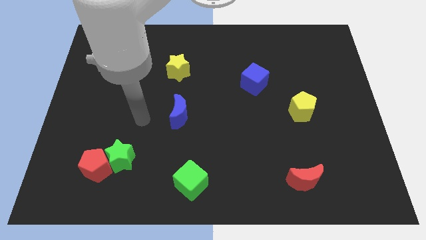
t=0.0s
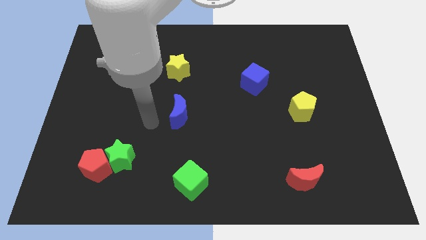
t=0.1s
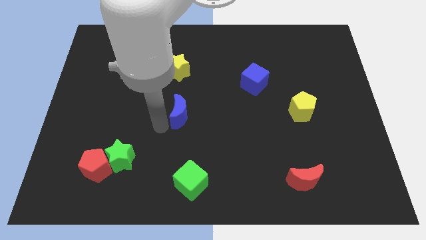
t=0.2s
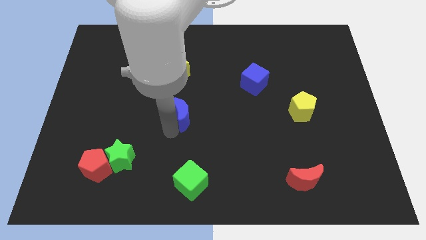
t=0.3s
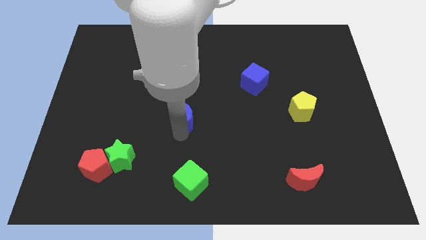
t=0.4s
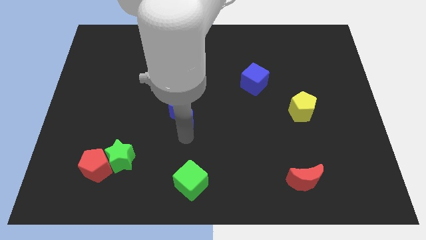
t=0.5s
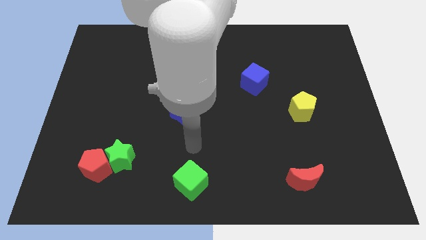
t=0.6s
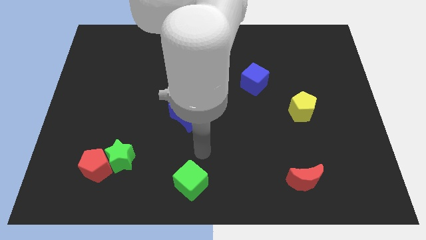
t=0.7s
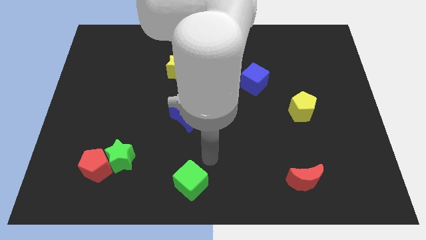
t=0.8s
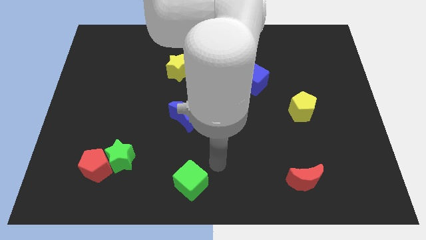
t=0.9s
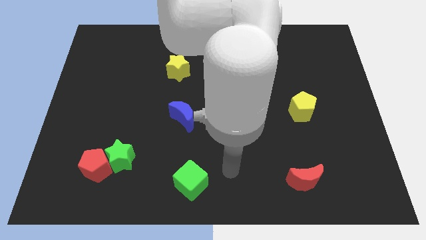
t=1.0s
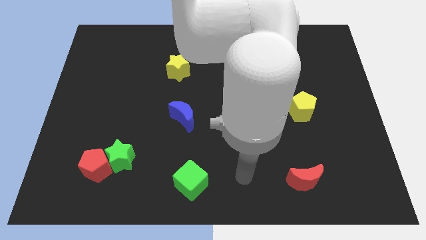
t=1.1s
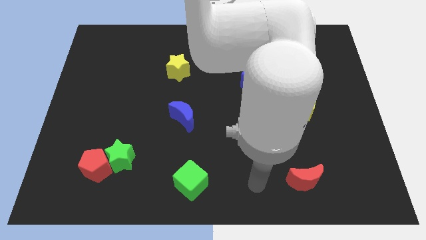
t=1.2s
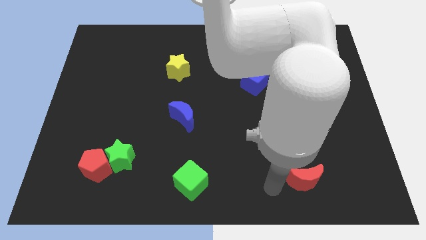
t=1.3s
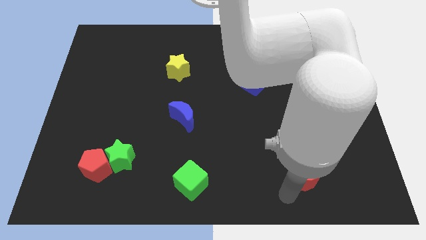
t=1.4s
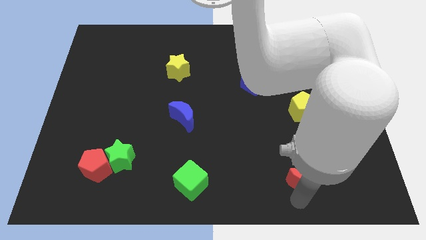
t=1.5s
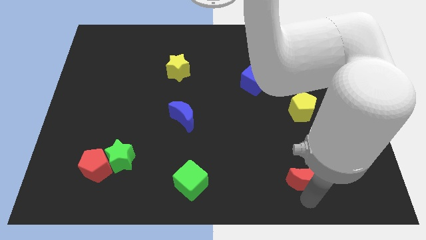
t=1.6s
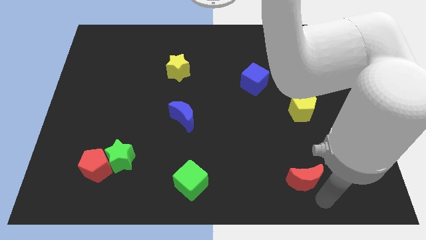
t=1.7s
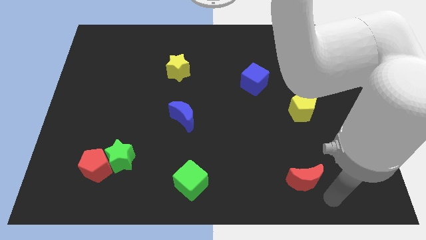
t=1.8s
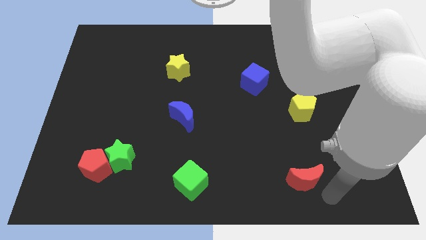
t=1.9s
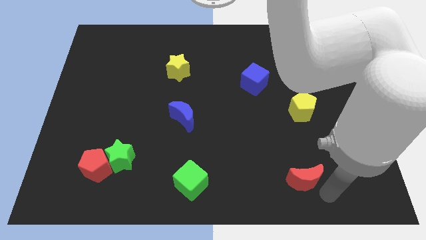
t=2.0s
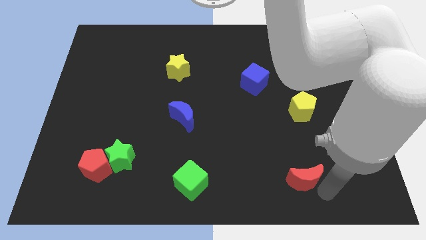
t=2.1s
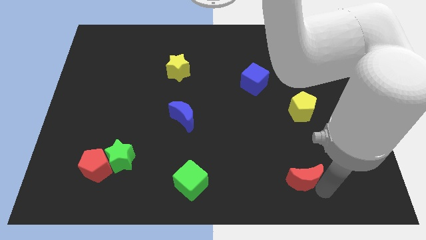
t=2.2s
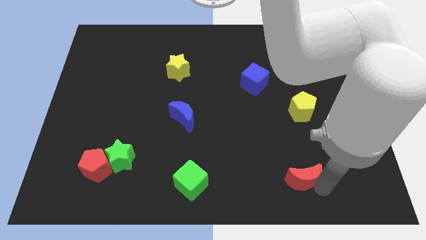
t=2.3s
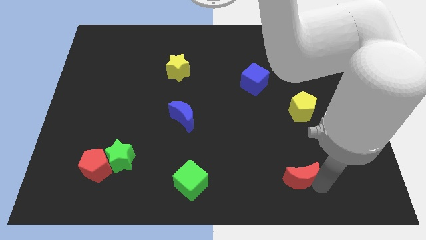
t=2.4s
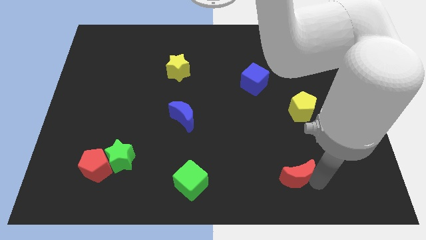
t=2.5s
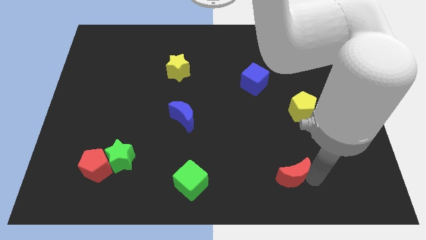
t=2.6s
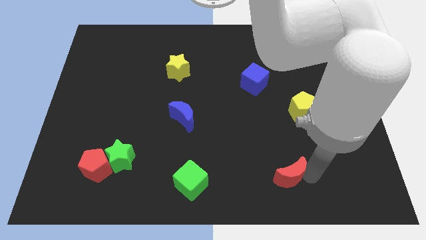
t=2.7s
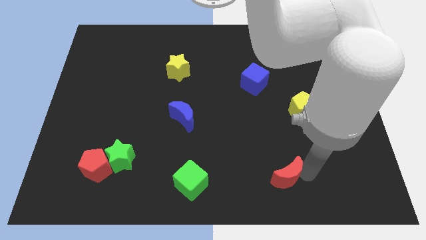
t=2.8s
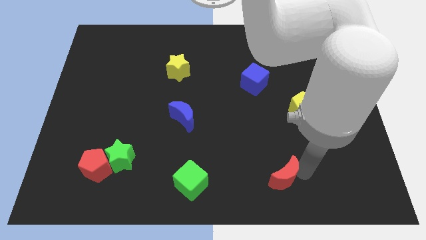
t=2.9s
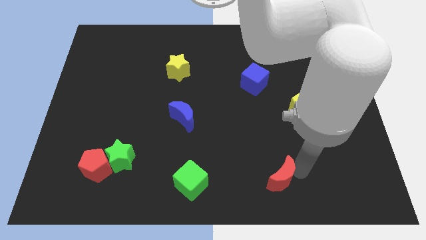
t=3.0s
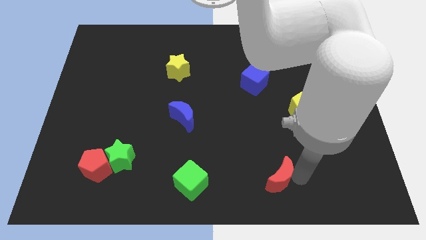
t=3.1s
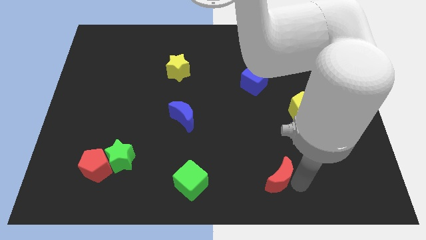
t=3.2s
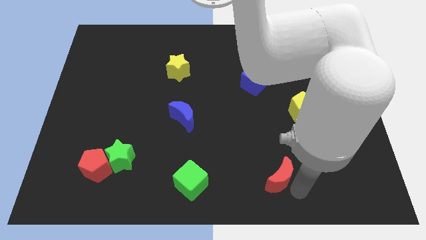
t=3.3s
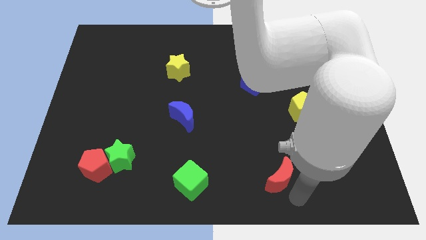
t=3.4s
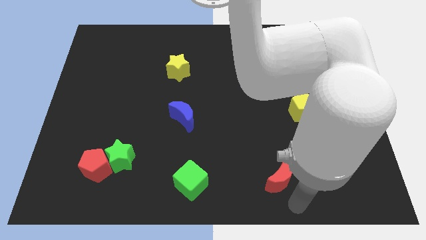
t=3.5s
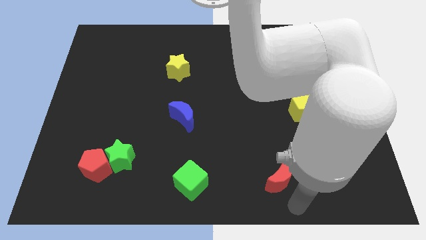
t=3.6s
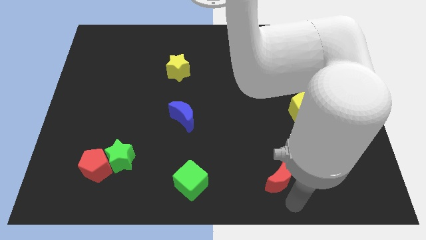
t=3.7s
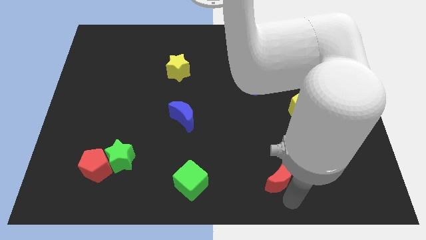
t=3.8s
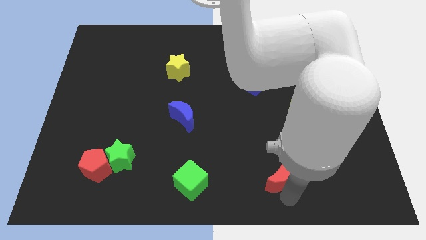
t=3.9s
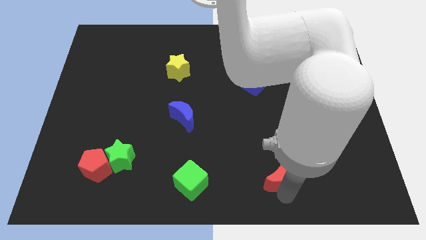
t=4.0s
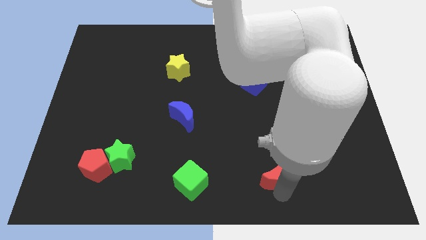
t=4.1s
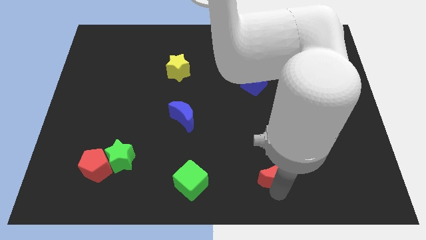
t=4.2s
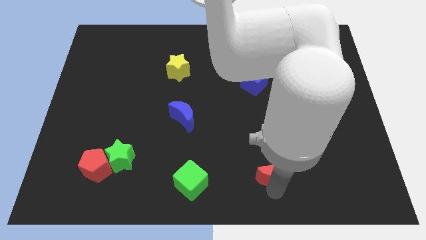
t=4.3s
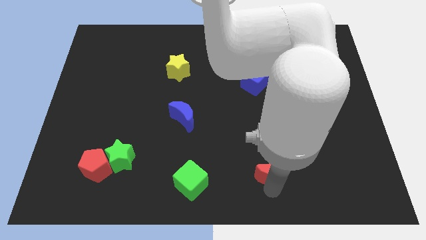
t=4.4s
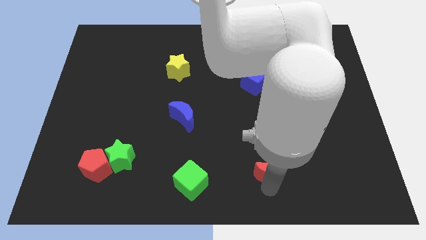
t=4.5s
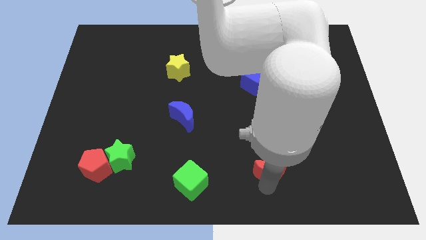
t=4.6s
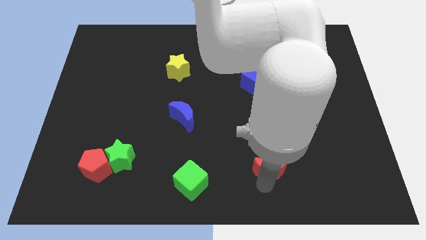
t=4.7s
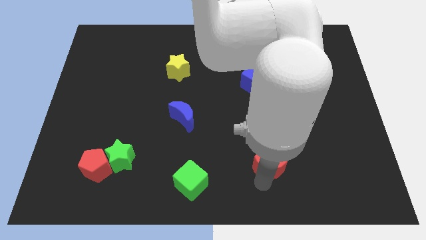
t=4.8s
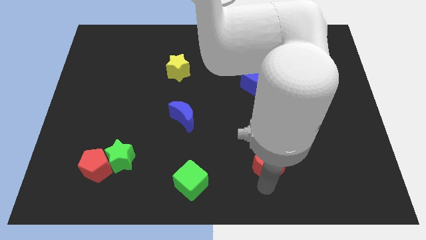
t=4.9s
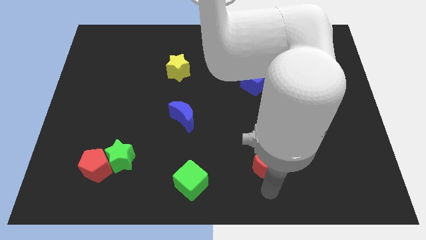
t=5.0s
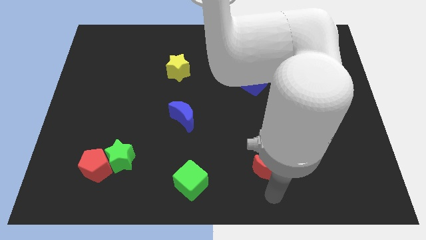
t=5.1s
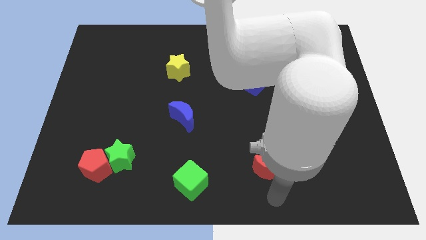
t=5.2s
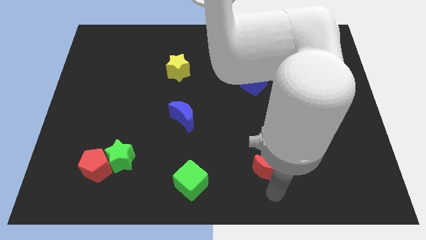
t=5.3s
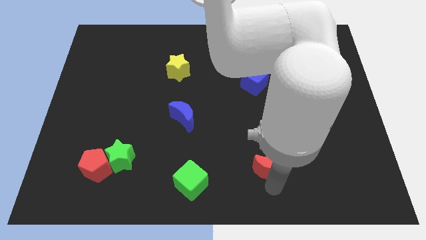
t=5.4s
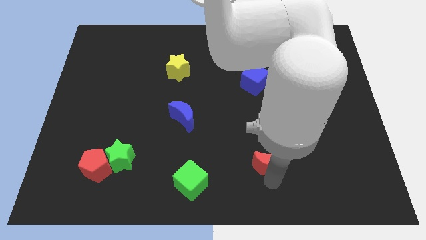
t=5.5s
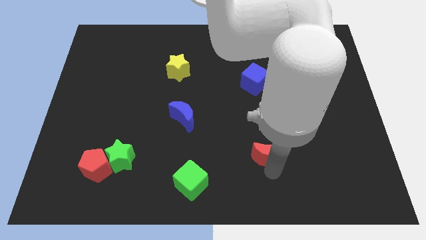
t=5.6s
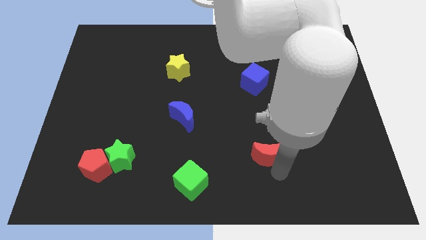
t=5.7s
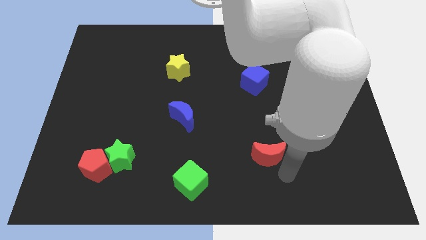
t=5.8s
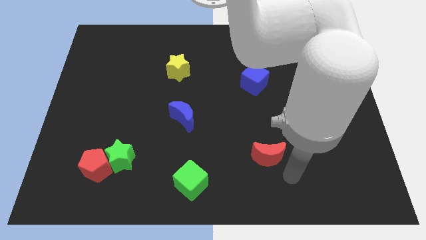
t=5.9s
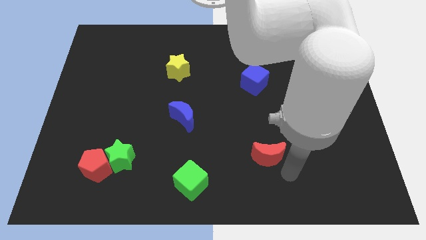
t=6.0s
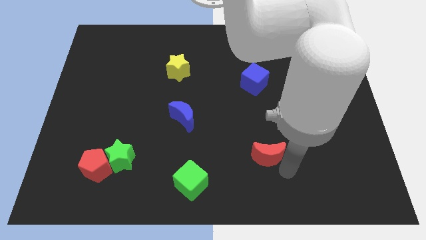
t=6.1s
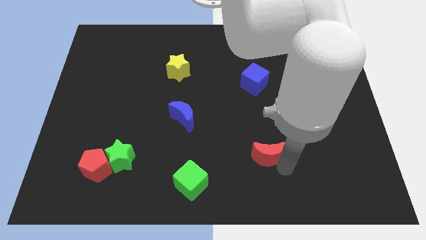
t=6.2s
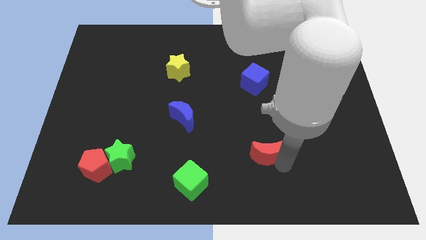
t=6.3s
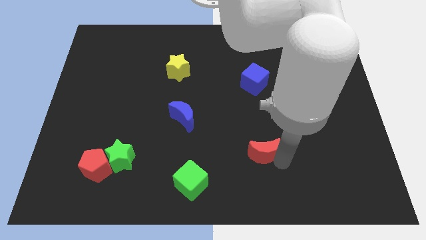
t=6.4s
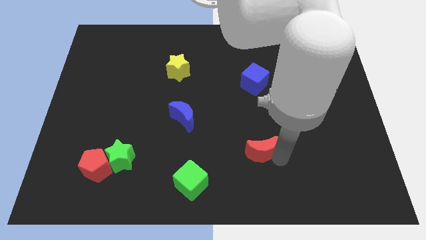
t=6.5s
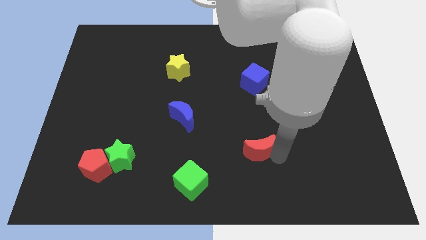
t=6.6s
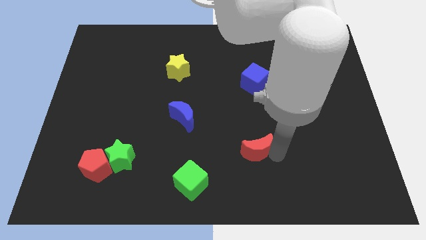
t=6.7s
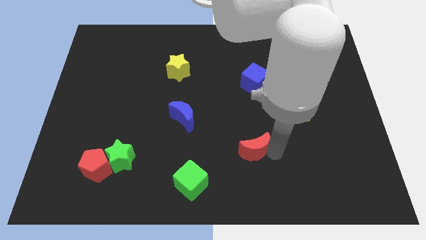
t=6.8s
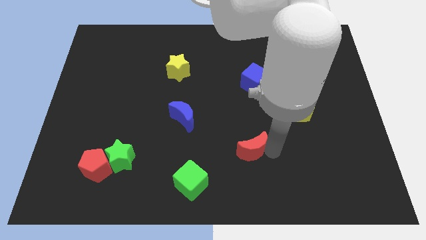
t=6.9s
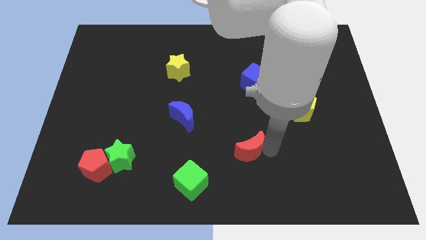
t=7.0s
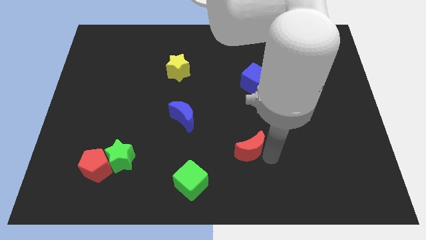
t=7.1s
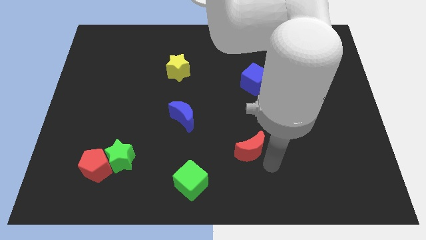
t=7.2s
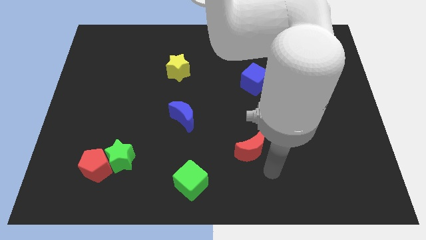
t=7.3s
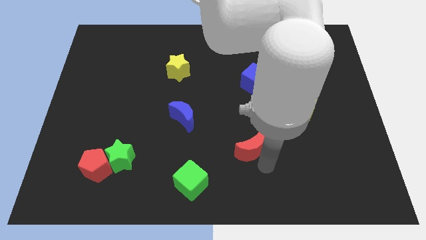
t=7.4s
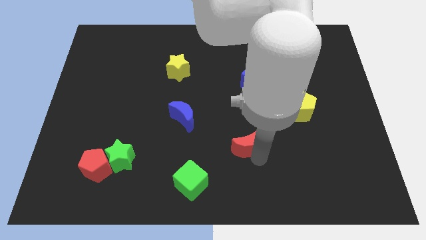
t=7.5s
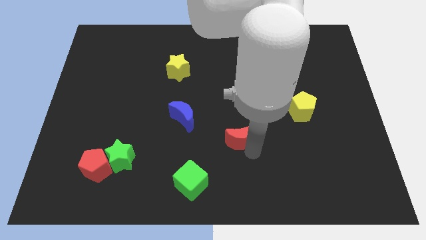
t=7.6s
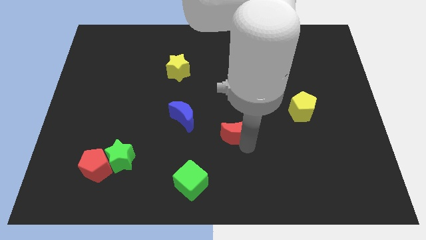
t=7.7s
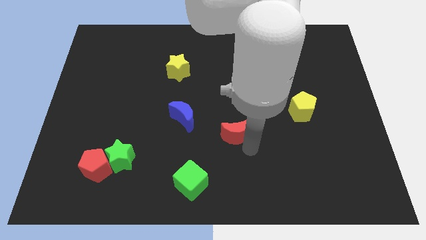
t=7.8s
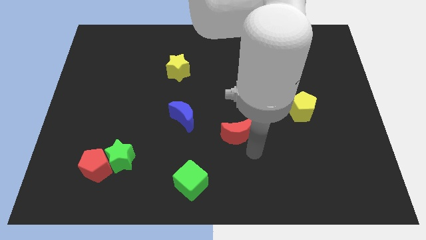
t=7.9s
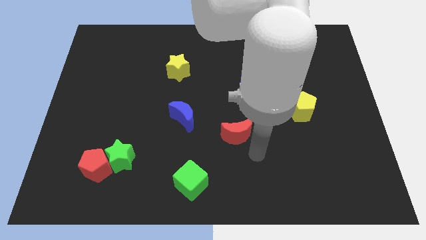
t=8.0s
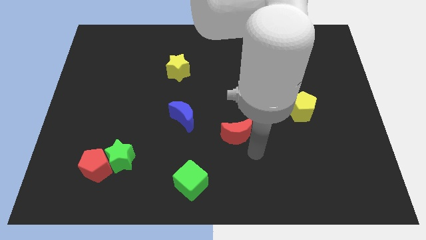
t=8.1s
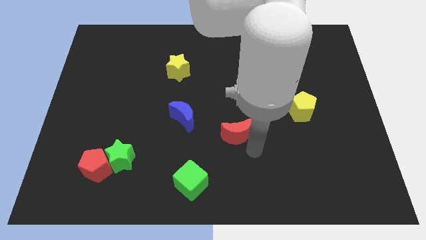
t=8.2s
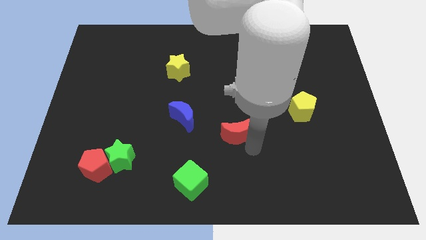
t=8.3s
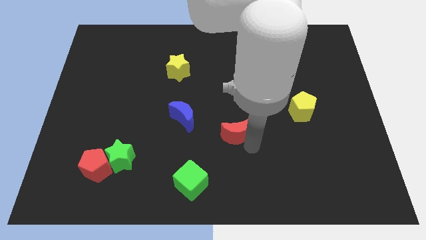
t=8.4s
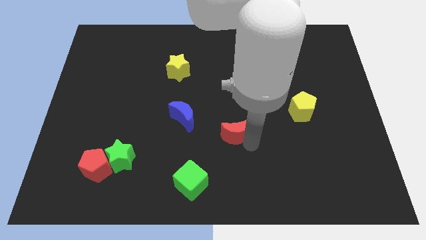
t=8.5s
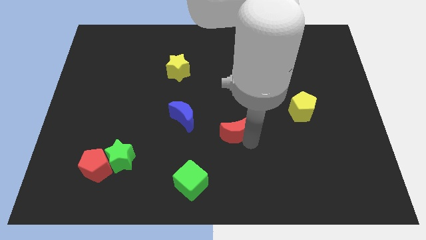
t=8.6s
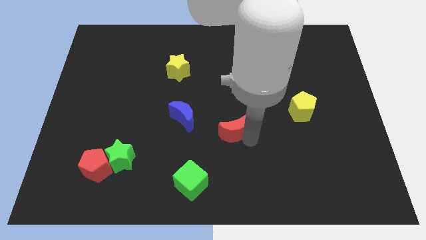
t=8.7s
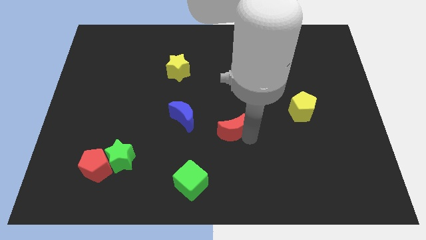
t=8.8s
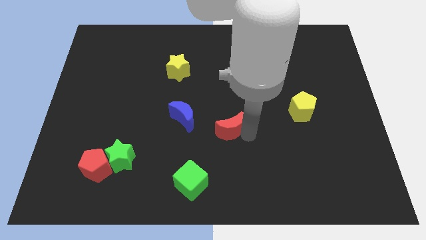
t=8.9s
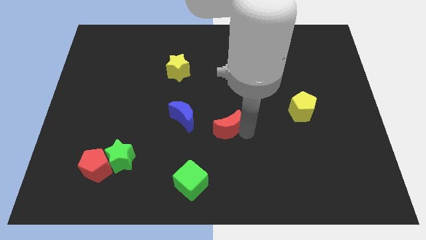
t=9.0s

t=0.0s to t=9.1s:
push the red moon up and then left
